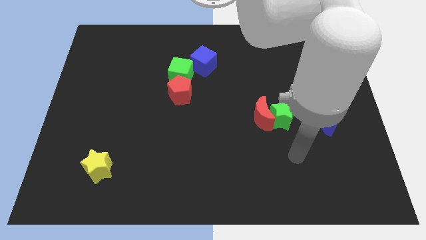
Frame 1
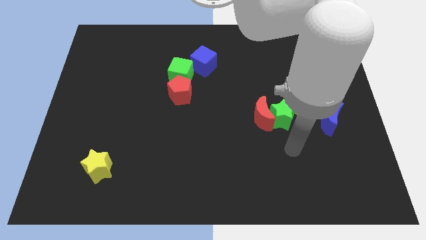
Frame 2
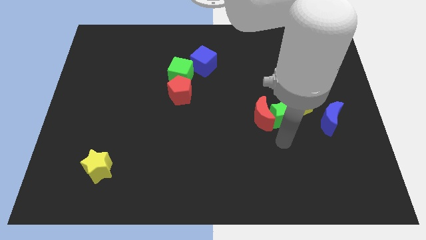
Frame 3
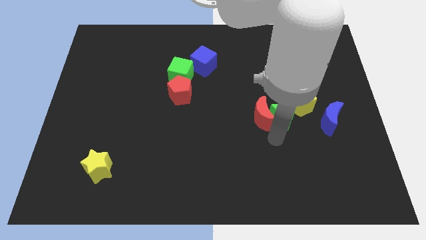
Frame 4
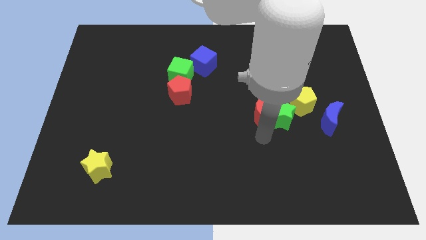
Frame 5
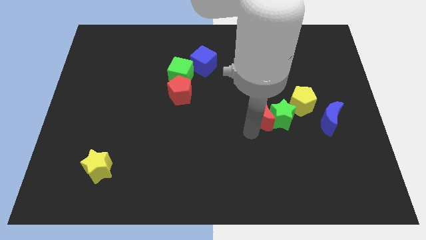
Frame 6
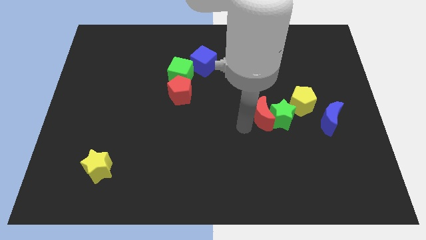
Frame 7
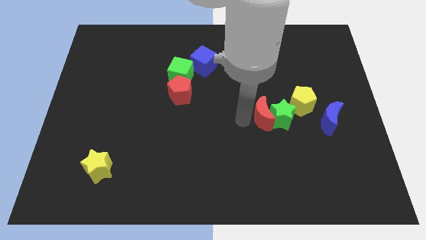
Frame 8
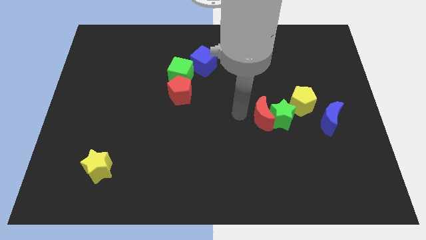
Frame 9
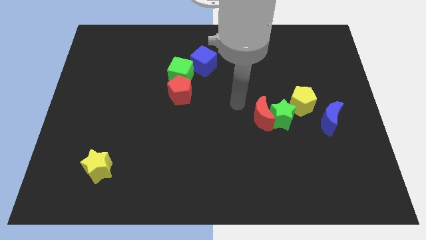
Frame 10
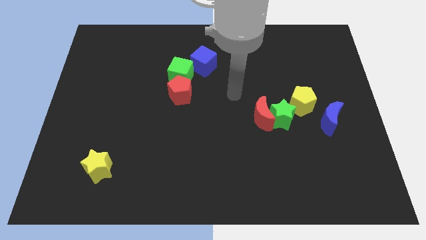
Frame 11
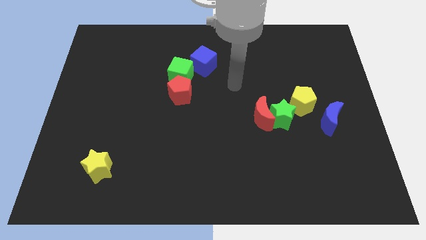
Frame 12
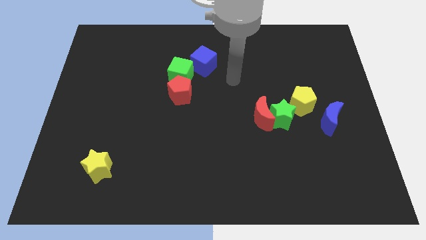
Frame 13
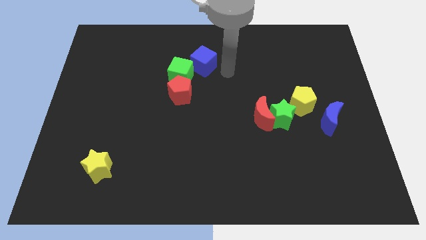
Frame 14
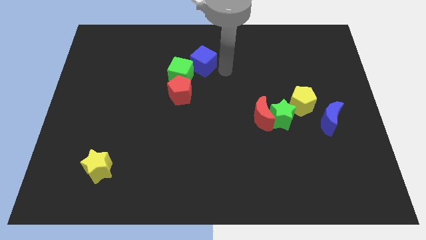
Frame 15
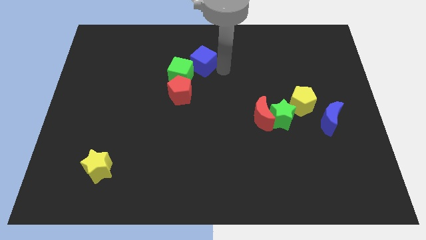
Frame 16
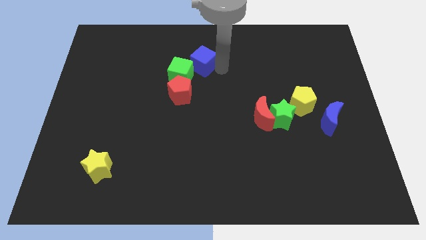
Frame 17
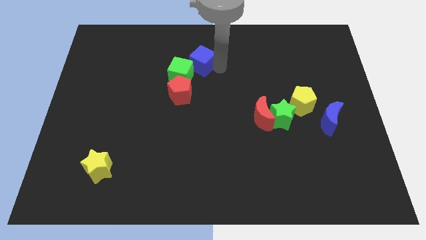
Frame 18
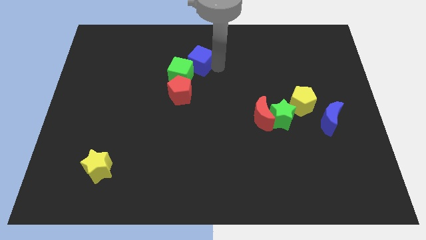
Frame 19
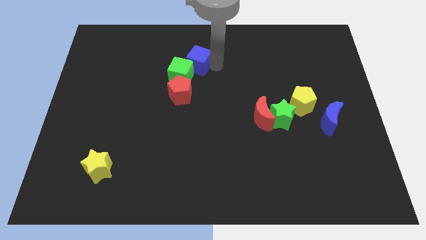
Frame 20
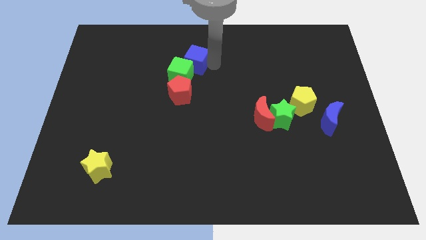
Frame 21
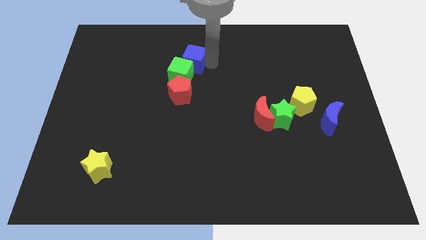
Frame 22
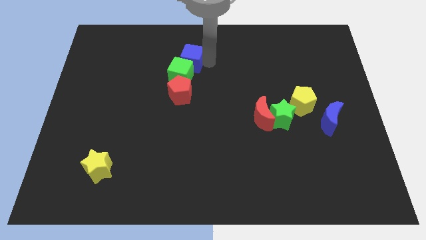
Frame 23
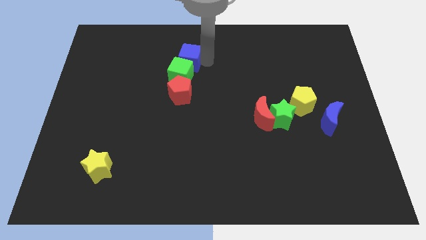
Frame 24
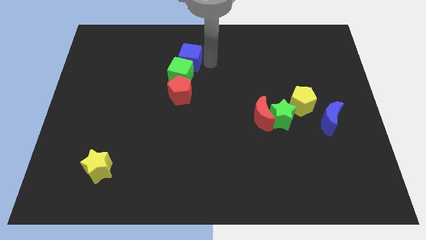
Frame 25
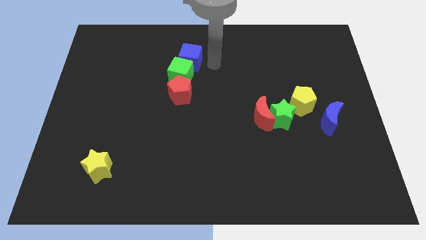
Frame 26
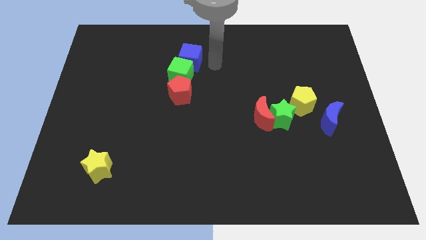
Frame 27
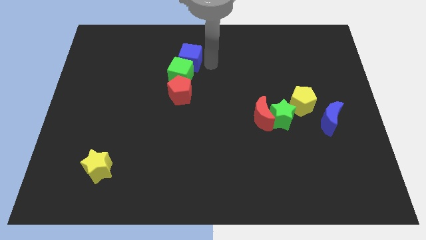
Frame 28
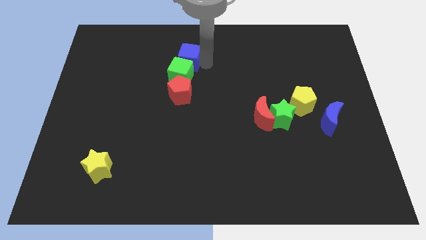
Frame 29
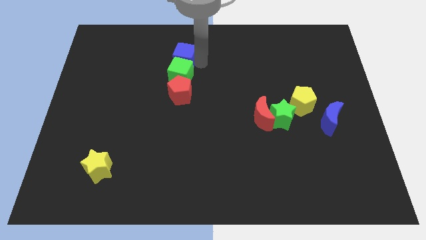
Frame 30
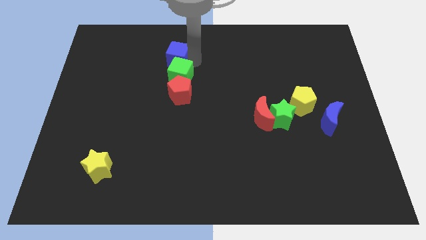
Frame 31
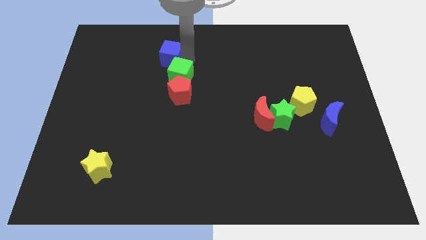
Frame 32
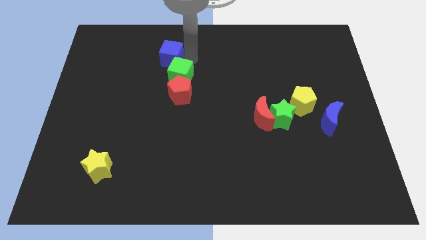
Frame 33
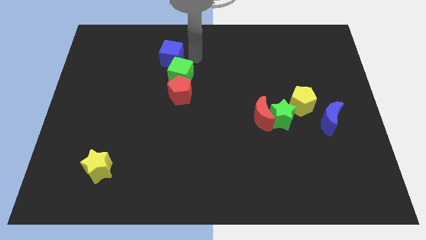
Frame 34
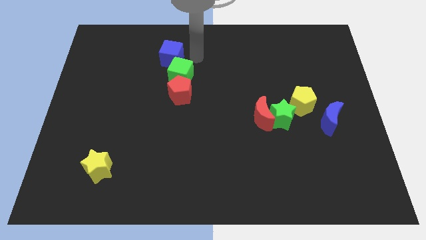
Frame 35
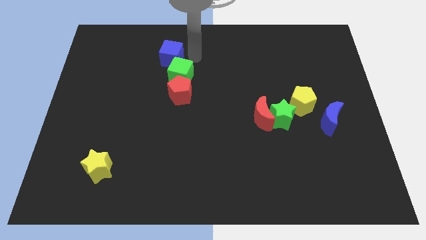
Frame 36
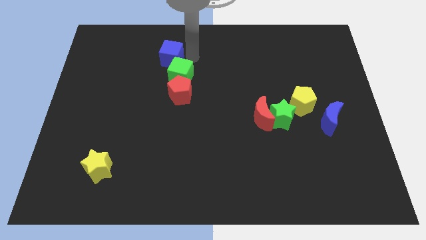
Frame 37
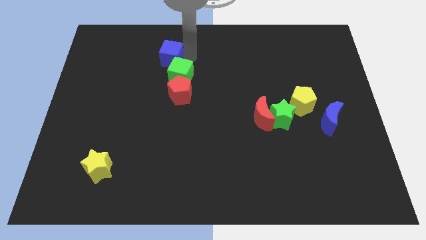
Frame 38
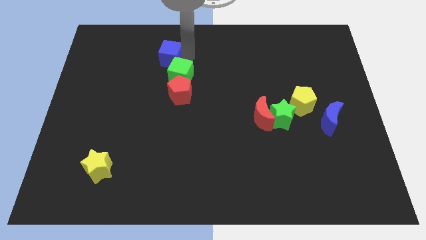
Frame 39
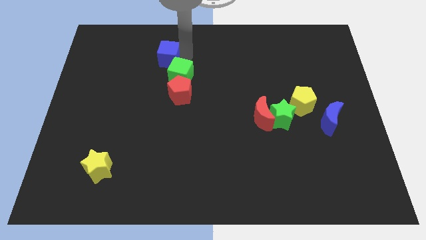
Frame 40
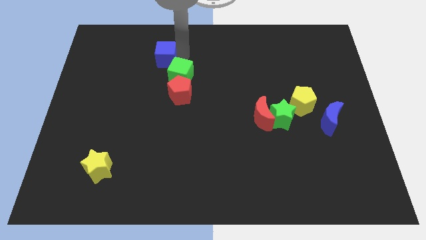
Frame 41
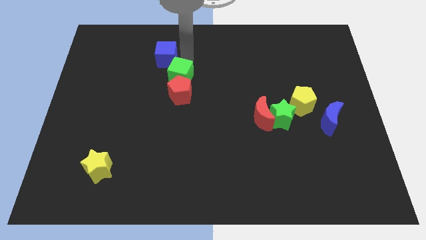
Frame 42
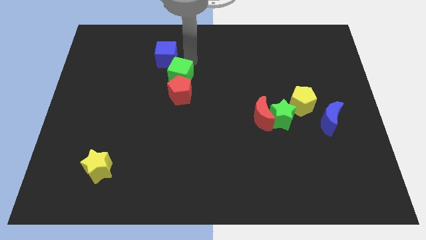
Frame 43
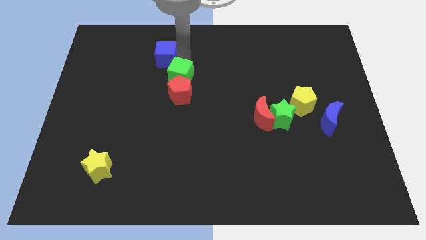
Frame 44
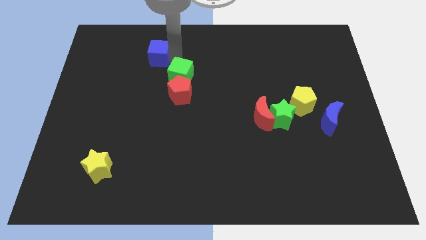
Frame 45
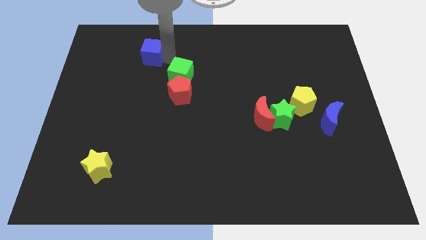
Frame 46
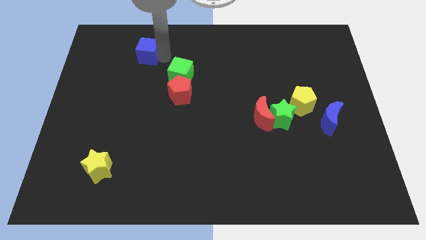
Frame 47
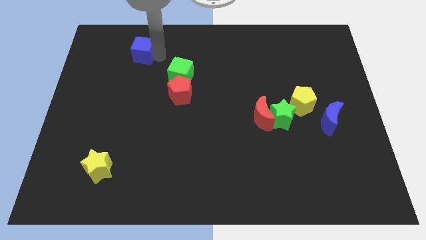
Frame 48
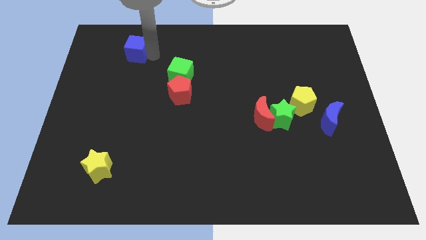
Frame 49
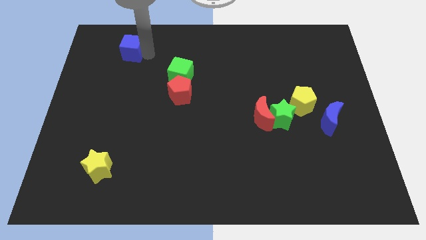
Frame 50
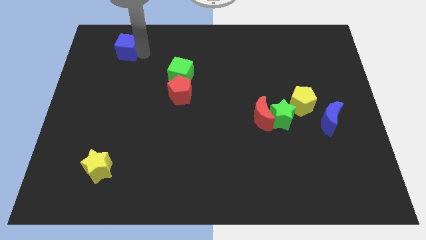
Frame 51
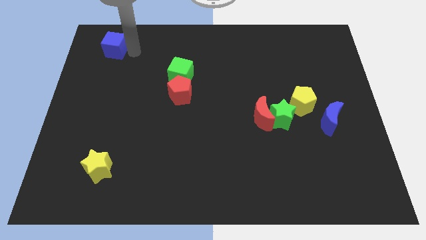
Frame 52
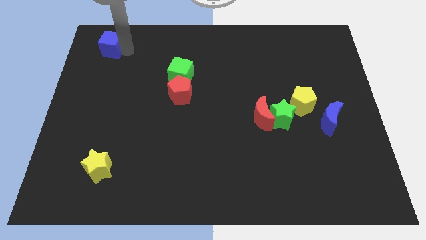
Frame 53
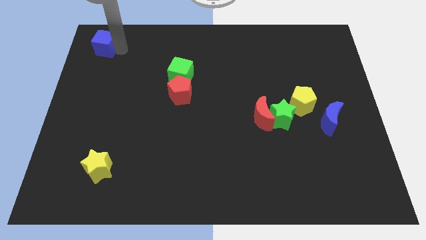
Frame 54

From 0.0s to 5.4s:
push the blue cube to the top left corner

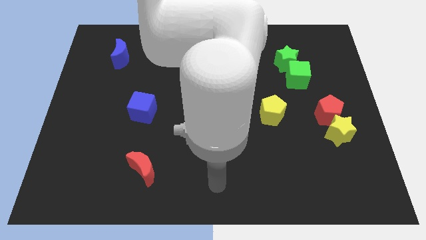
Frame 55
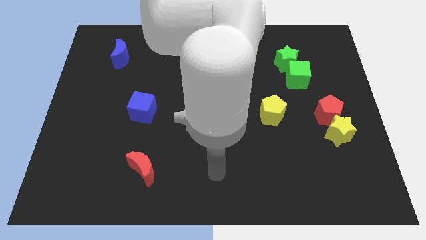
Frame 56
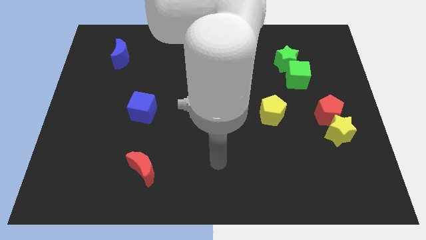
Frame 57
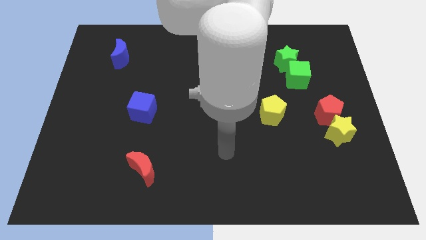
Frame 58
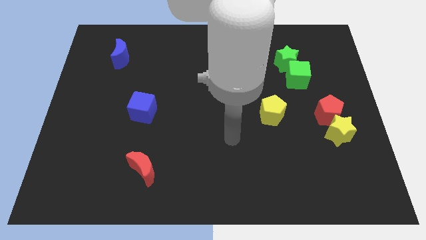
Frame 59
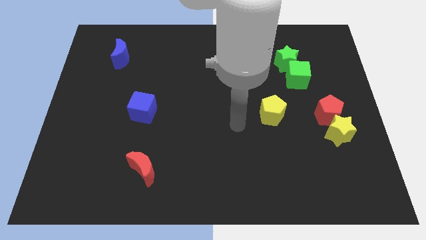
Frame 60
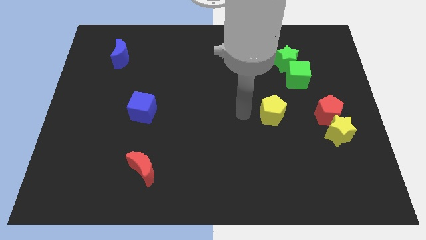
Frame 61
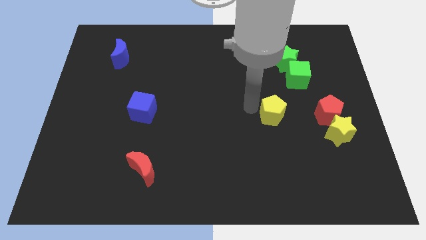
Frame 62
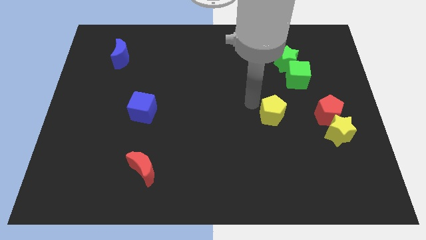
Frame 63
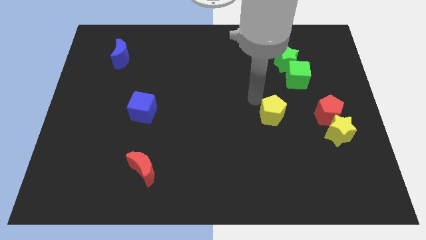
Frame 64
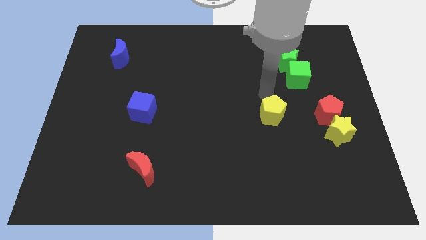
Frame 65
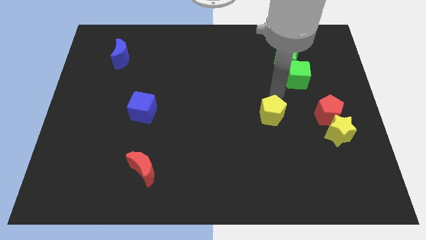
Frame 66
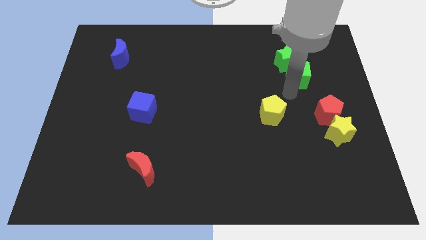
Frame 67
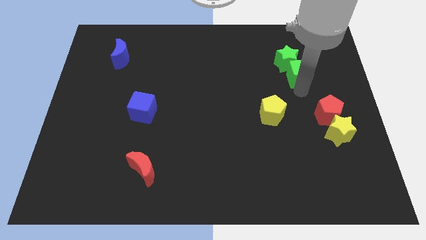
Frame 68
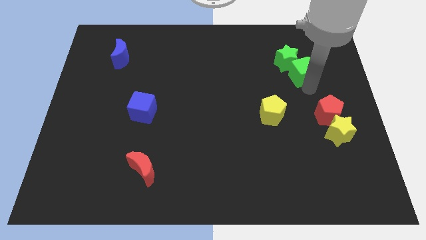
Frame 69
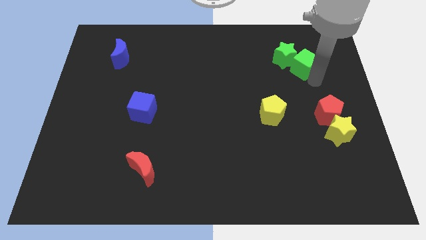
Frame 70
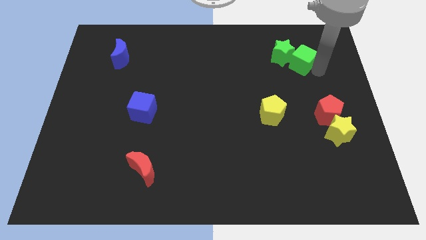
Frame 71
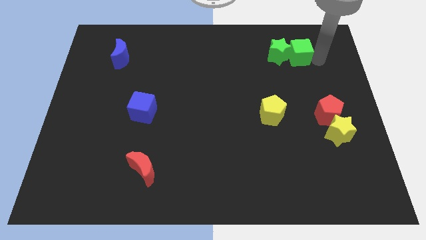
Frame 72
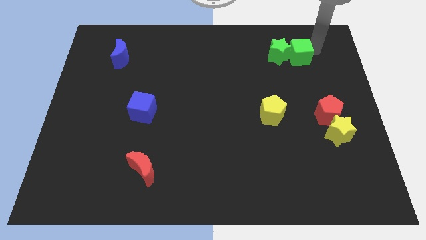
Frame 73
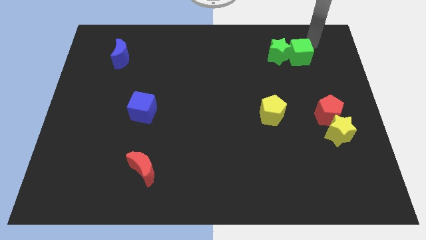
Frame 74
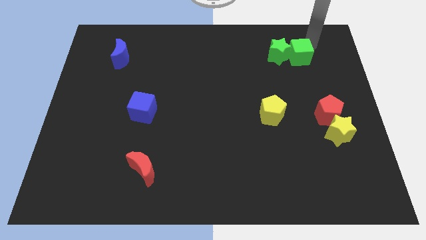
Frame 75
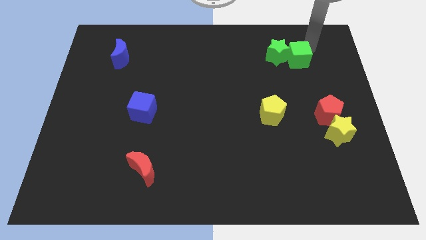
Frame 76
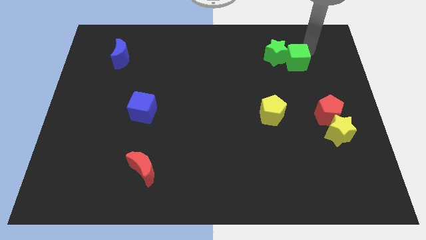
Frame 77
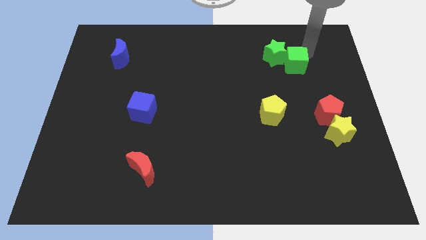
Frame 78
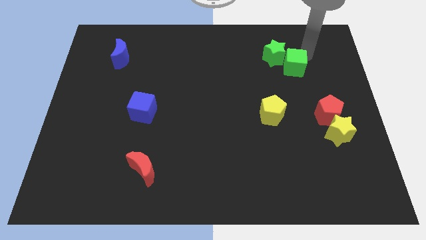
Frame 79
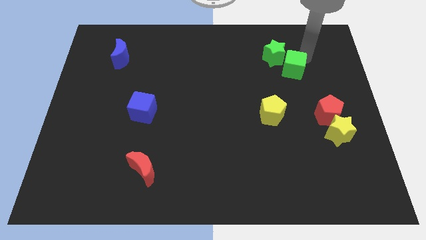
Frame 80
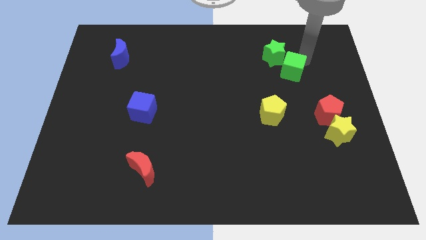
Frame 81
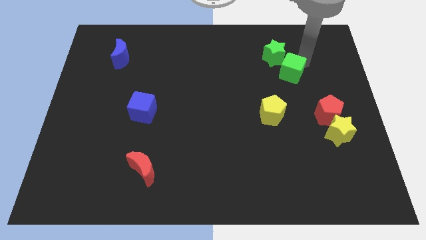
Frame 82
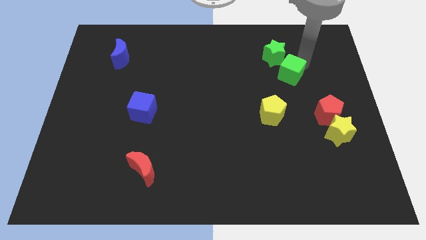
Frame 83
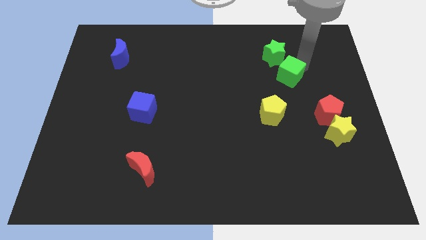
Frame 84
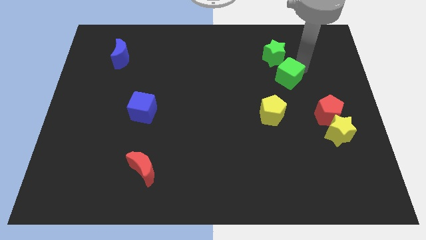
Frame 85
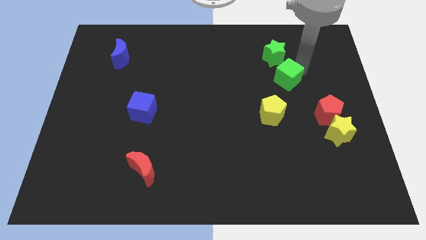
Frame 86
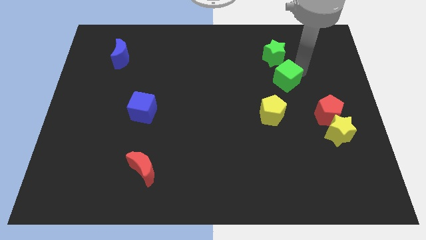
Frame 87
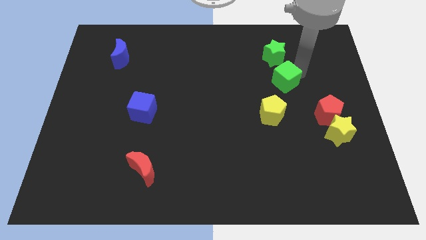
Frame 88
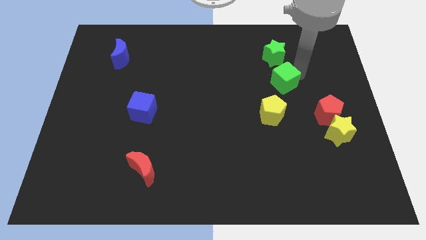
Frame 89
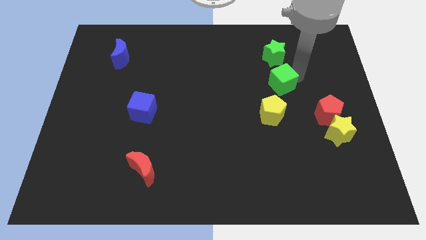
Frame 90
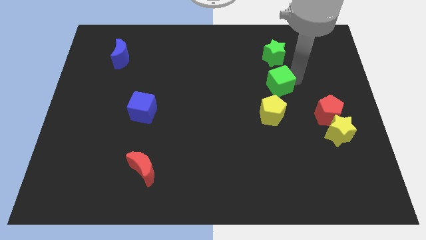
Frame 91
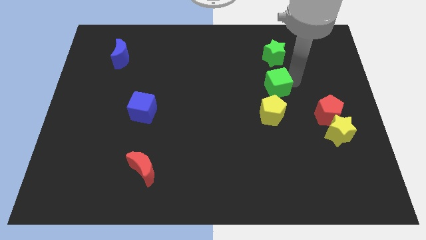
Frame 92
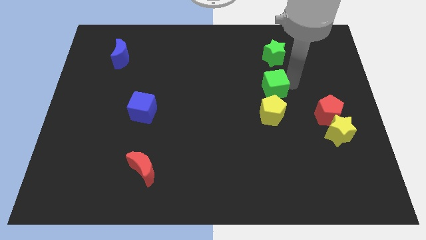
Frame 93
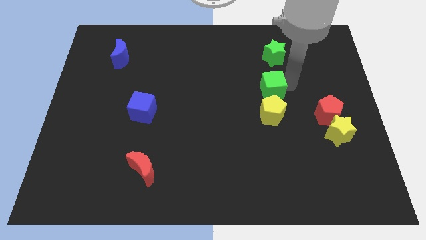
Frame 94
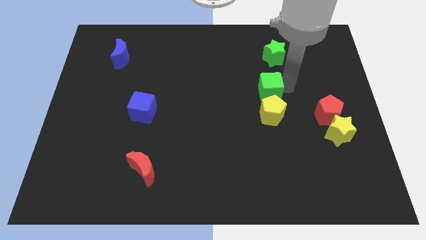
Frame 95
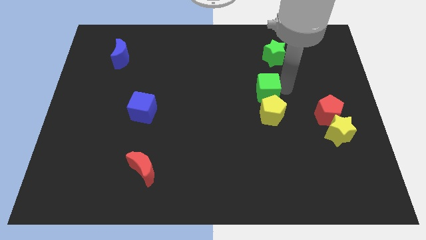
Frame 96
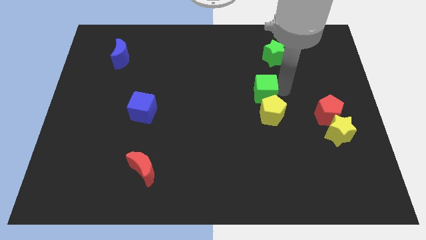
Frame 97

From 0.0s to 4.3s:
put the green cube to the middle of the board
